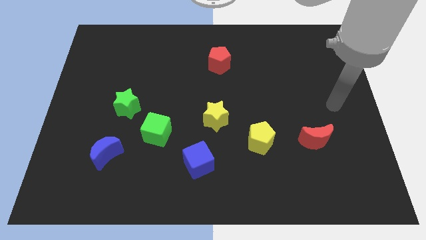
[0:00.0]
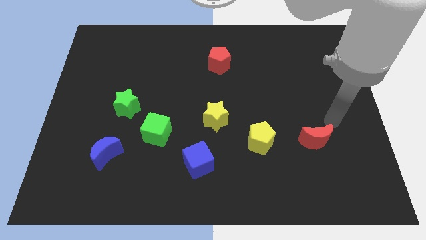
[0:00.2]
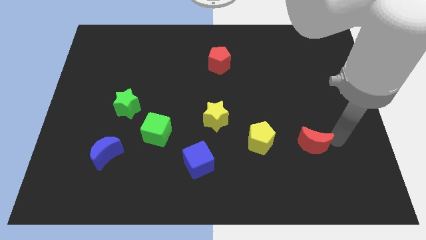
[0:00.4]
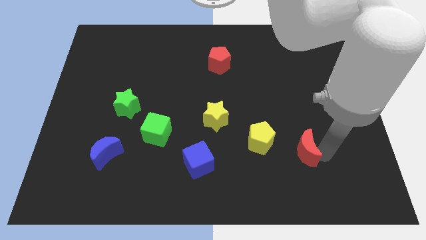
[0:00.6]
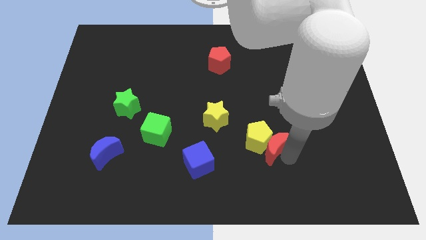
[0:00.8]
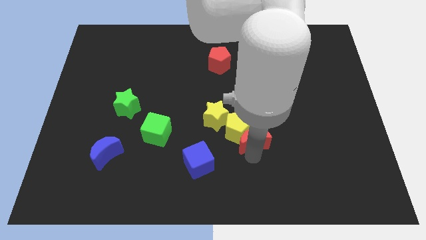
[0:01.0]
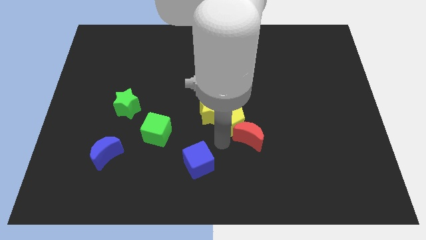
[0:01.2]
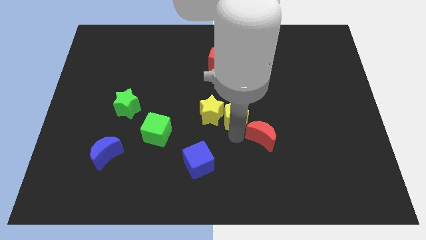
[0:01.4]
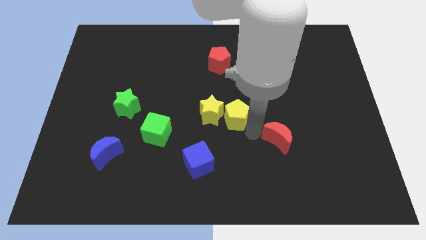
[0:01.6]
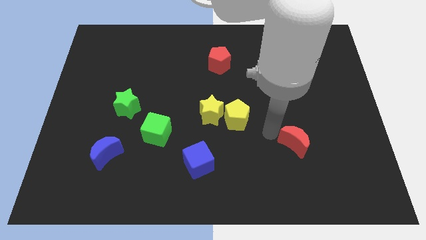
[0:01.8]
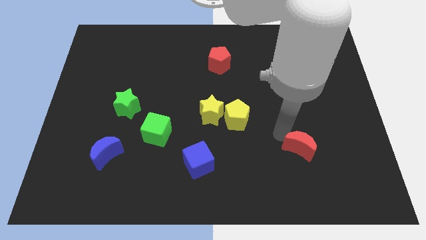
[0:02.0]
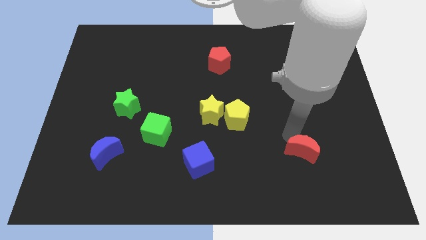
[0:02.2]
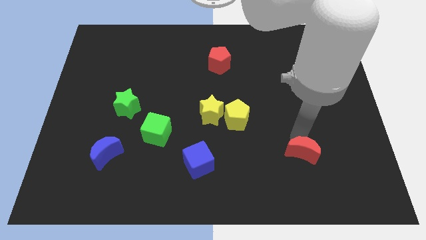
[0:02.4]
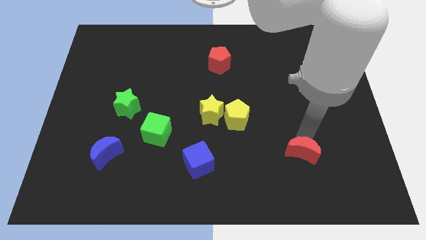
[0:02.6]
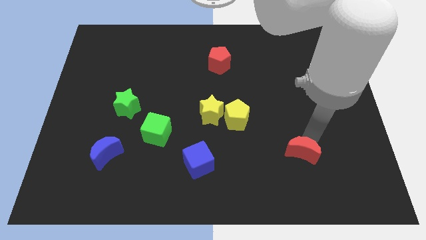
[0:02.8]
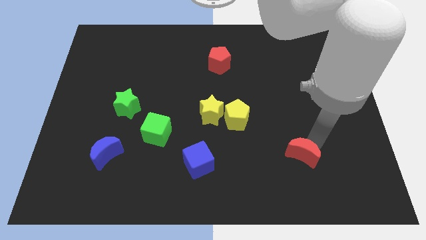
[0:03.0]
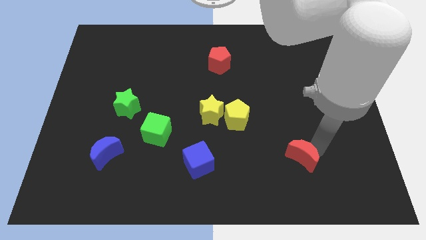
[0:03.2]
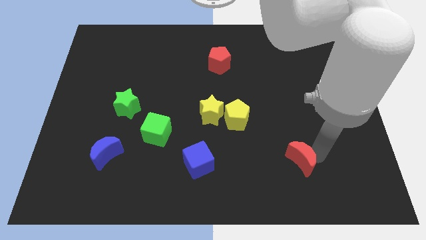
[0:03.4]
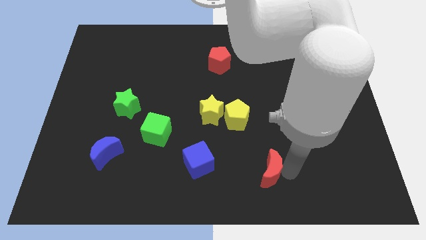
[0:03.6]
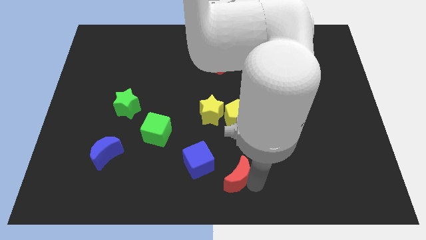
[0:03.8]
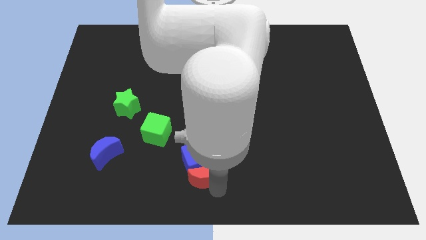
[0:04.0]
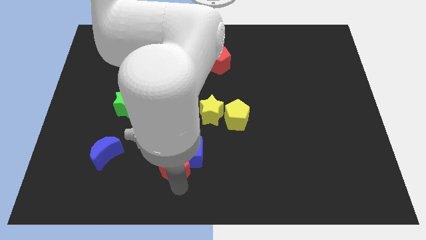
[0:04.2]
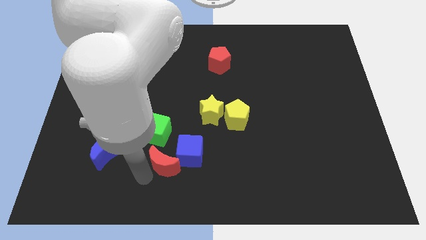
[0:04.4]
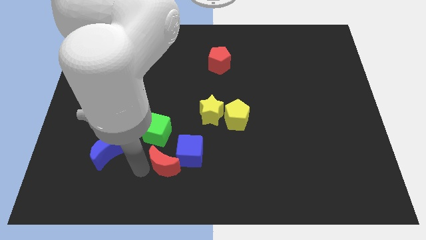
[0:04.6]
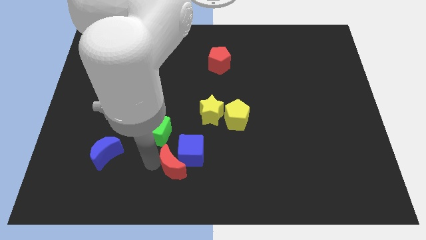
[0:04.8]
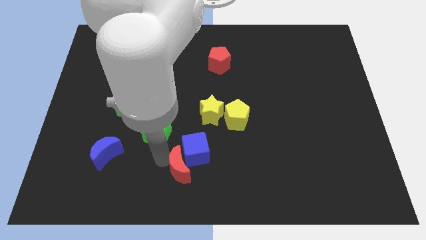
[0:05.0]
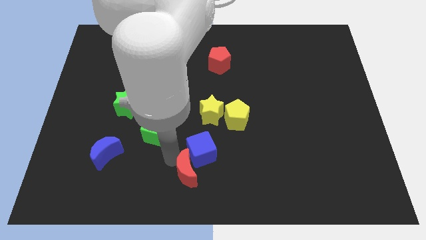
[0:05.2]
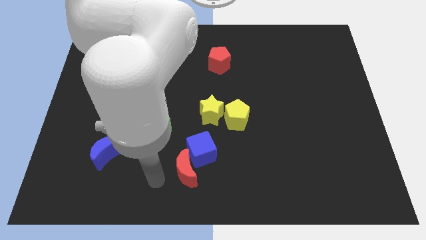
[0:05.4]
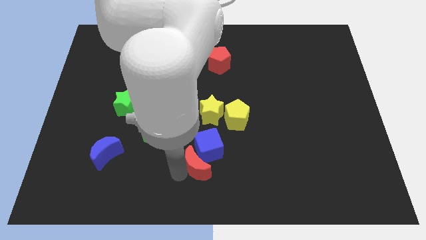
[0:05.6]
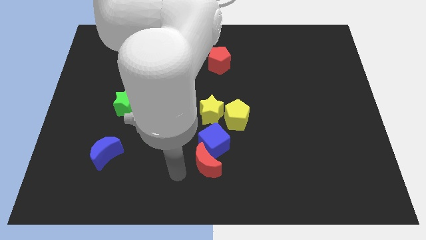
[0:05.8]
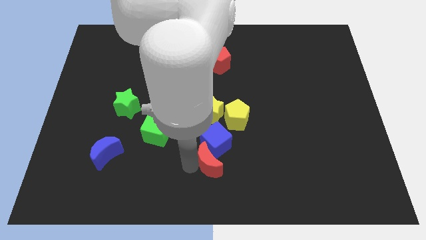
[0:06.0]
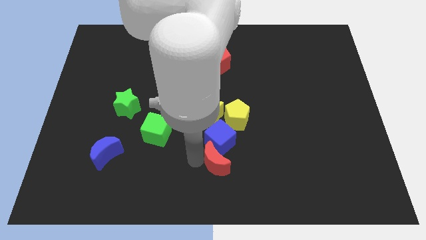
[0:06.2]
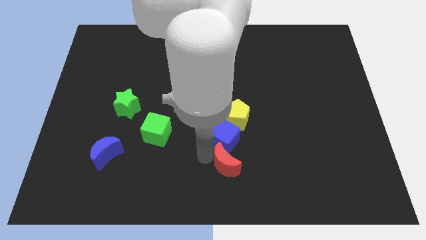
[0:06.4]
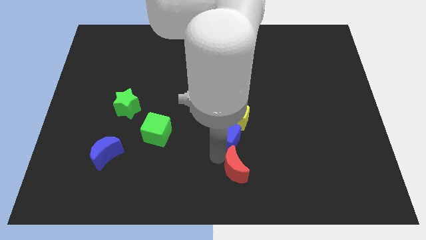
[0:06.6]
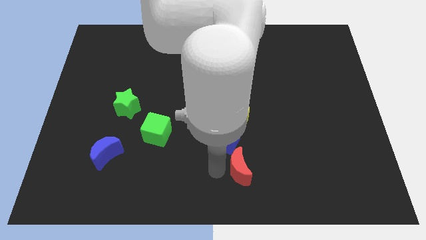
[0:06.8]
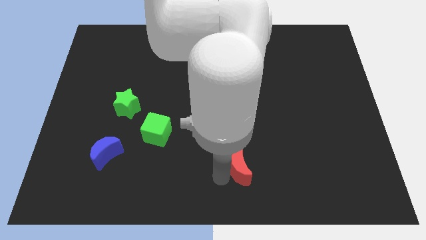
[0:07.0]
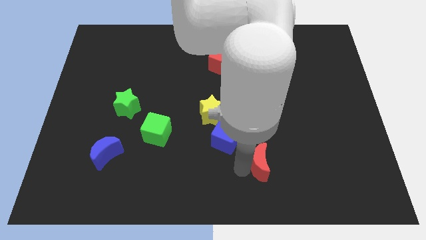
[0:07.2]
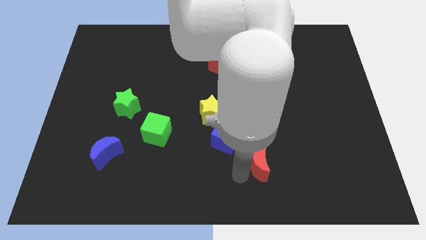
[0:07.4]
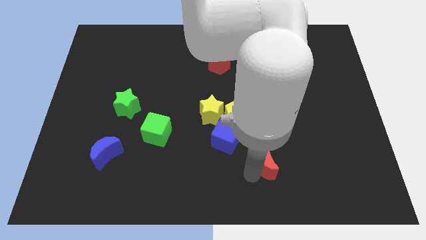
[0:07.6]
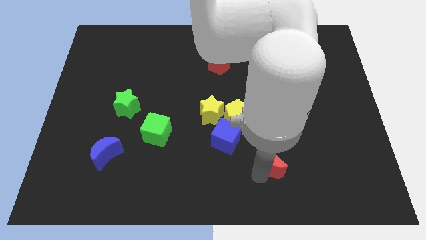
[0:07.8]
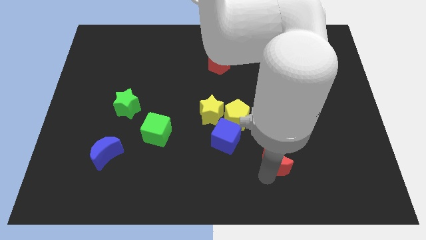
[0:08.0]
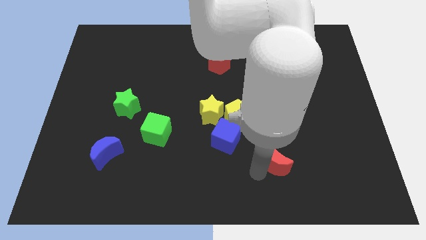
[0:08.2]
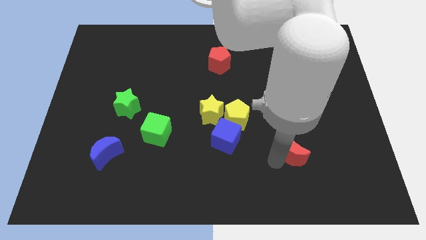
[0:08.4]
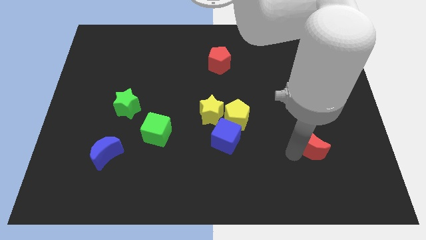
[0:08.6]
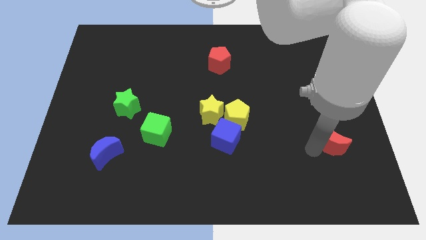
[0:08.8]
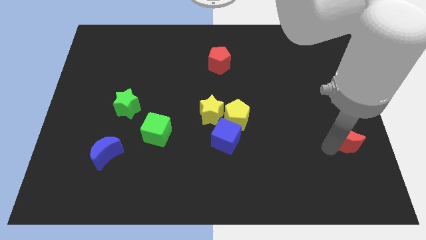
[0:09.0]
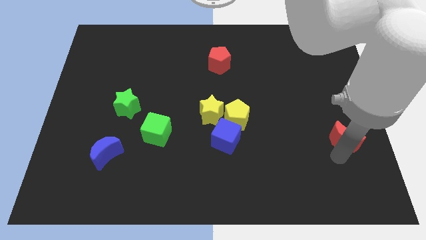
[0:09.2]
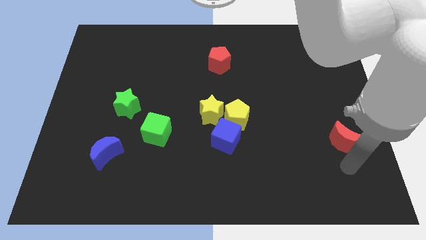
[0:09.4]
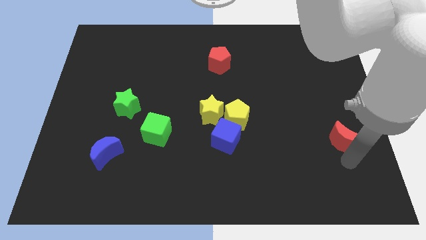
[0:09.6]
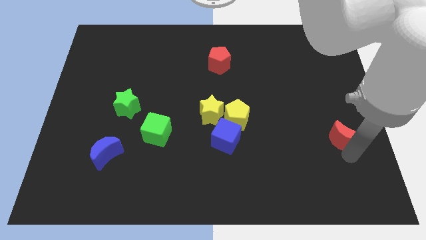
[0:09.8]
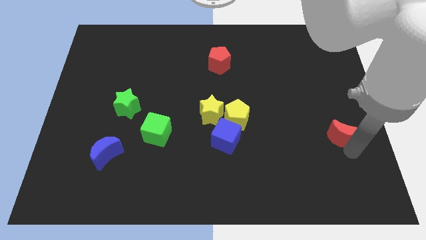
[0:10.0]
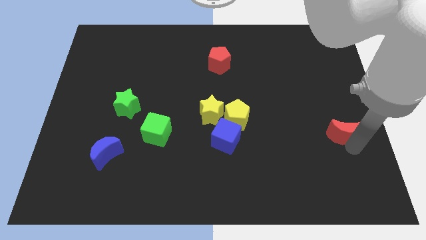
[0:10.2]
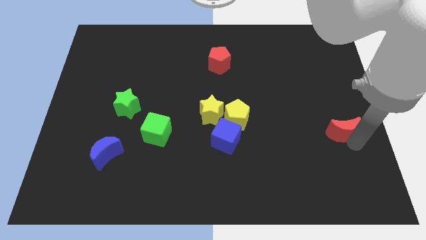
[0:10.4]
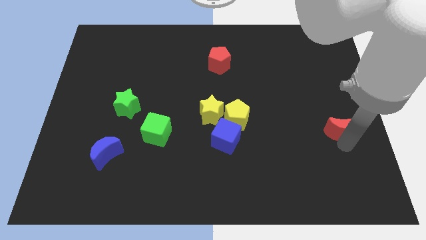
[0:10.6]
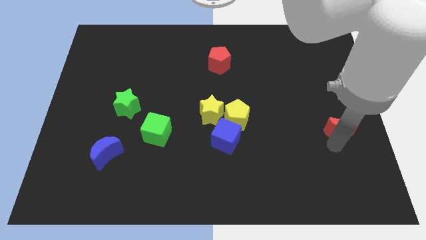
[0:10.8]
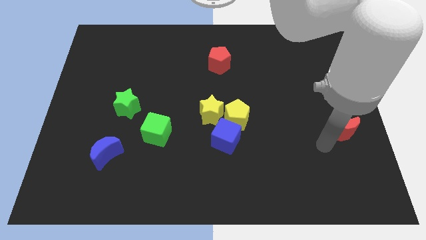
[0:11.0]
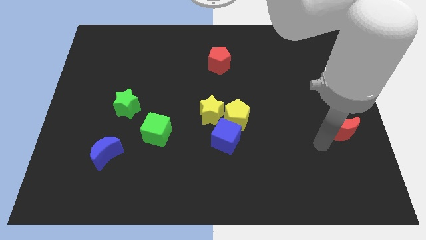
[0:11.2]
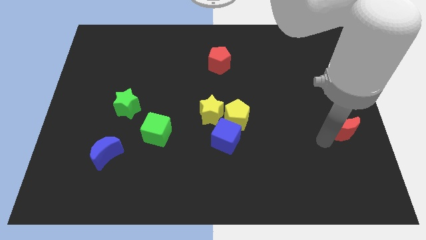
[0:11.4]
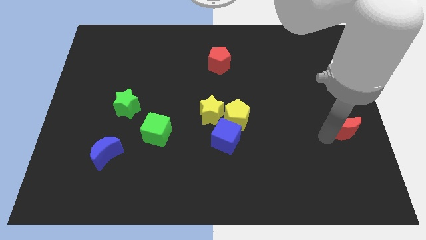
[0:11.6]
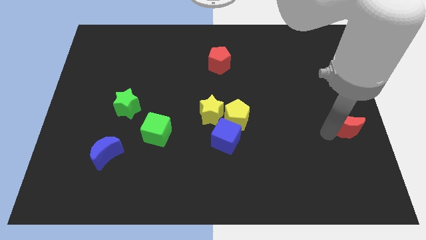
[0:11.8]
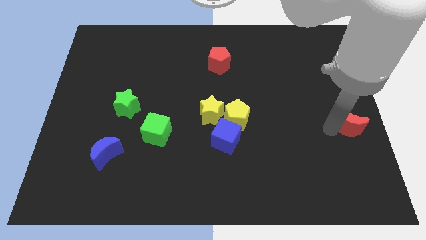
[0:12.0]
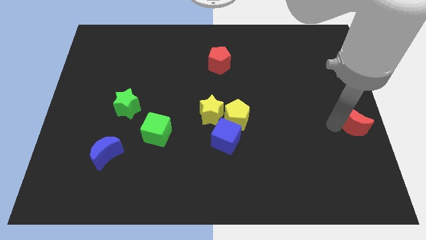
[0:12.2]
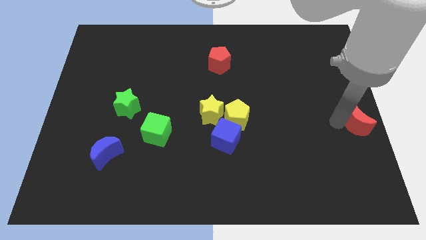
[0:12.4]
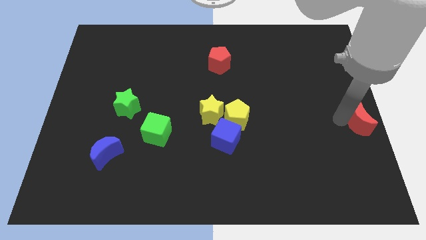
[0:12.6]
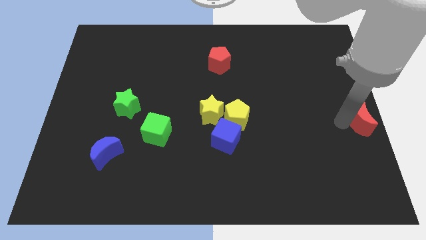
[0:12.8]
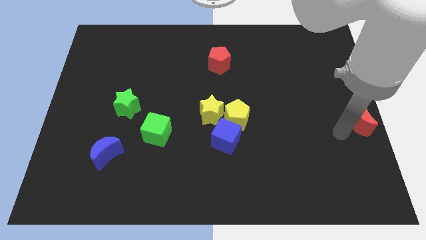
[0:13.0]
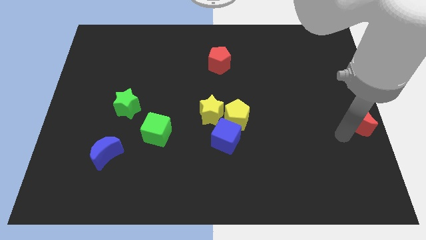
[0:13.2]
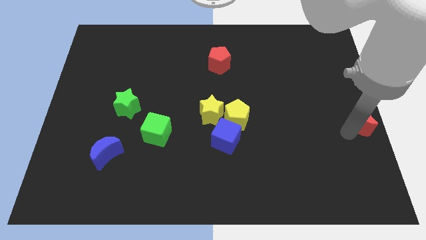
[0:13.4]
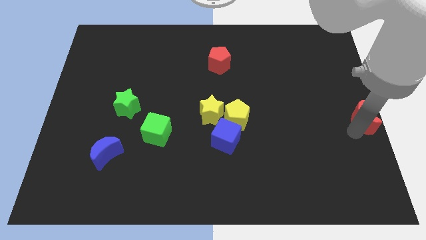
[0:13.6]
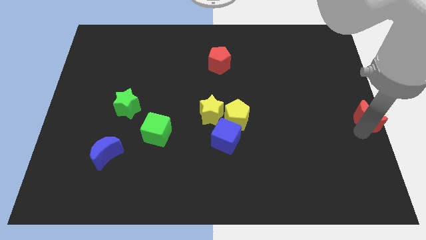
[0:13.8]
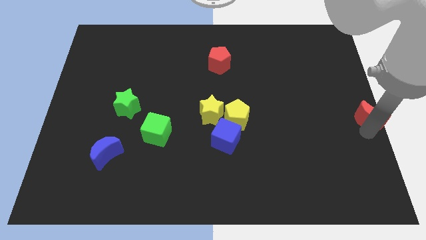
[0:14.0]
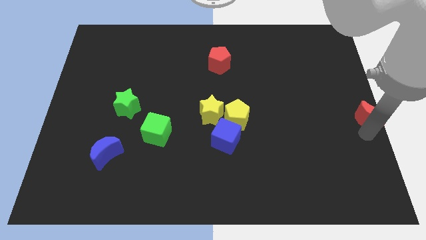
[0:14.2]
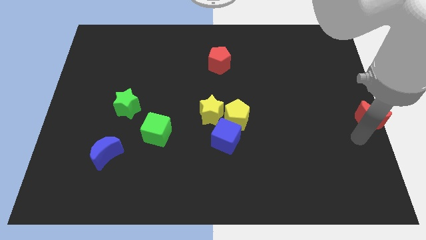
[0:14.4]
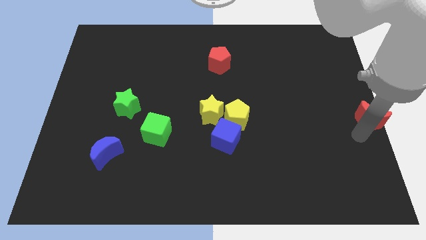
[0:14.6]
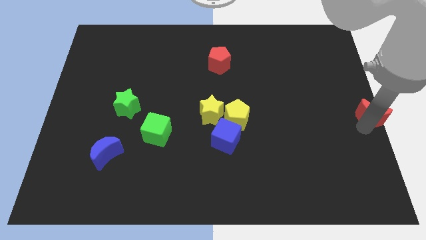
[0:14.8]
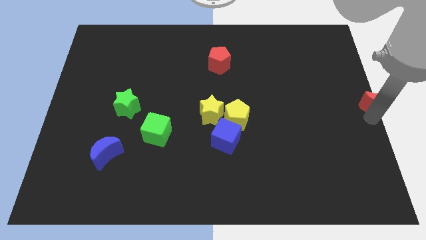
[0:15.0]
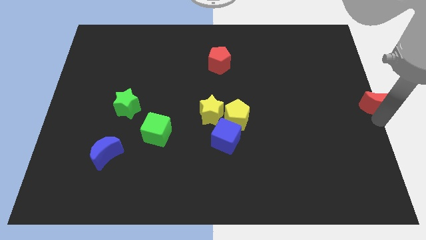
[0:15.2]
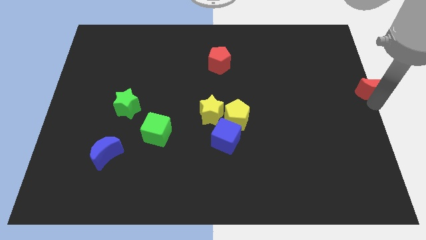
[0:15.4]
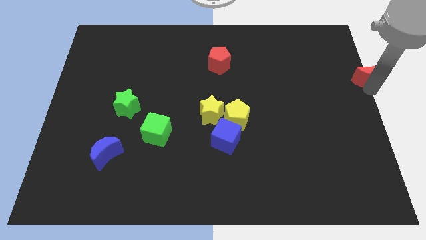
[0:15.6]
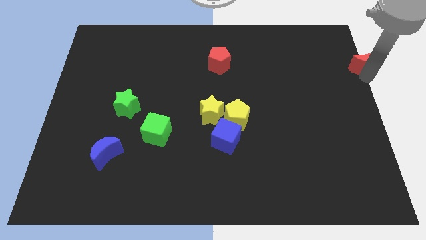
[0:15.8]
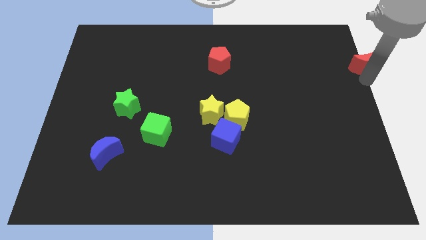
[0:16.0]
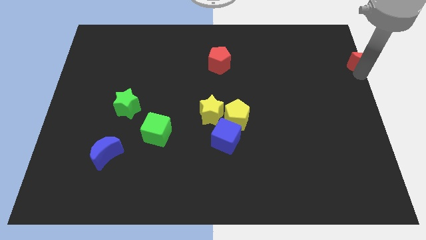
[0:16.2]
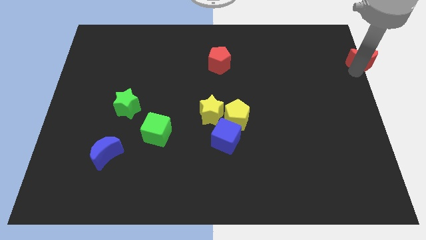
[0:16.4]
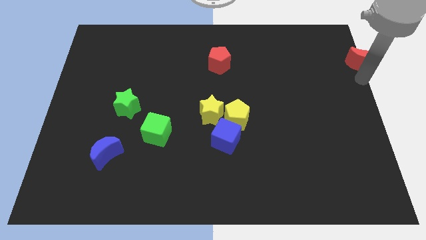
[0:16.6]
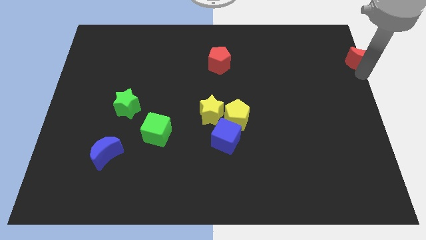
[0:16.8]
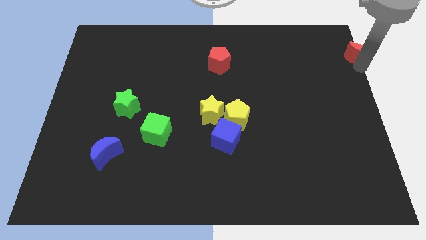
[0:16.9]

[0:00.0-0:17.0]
push the red moon to the top right corner
